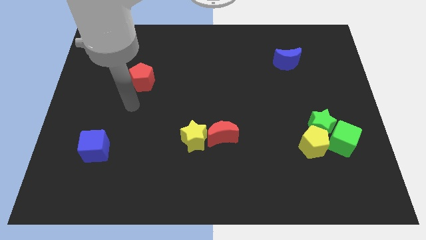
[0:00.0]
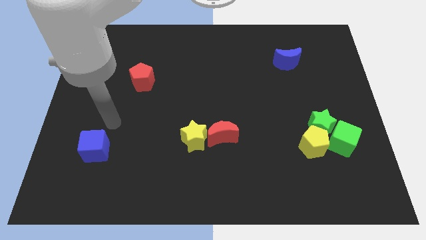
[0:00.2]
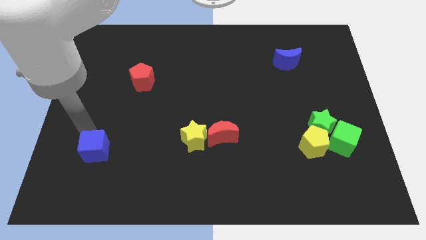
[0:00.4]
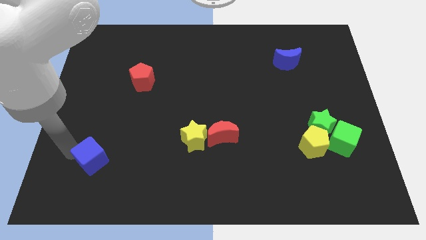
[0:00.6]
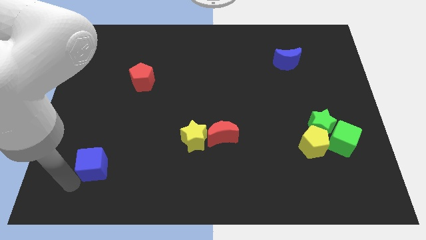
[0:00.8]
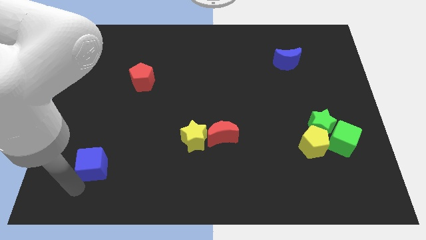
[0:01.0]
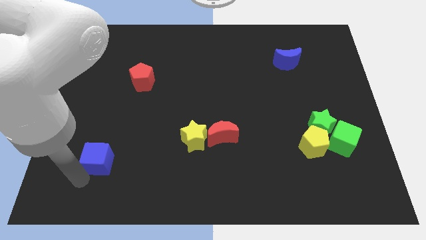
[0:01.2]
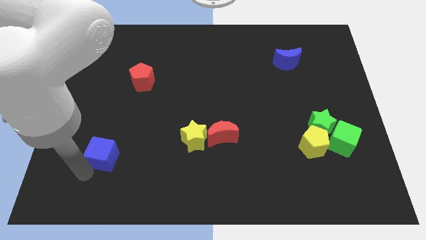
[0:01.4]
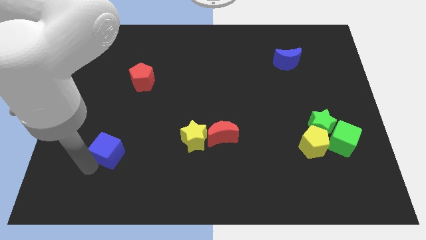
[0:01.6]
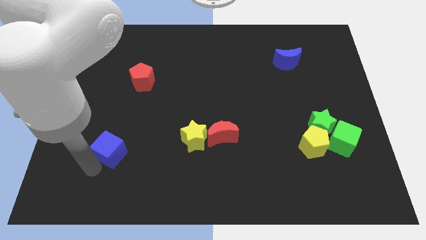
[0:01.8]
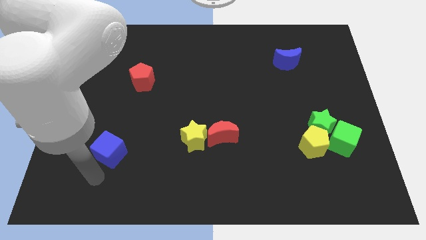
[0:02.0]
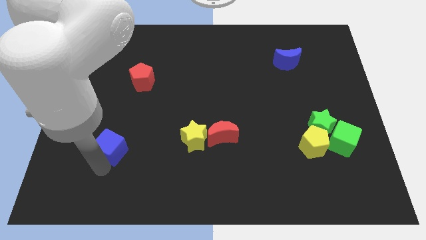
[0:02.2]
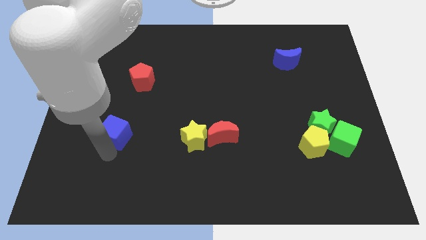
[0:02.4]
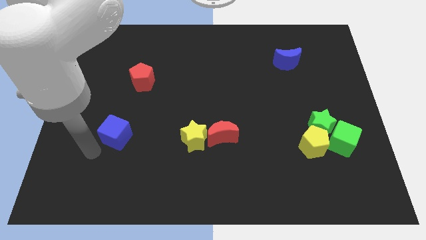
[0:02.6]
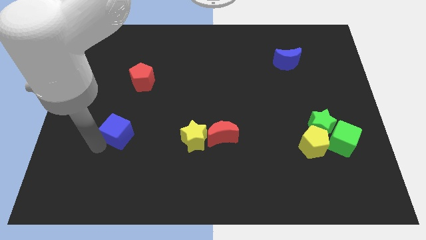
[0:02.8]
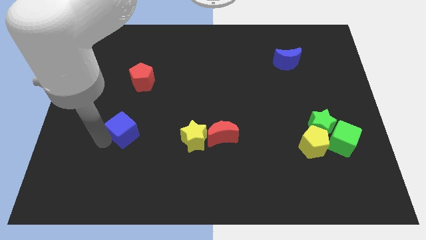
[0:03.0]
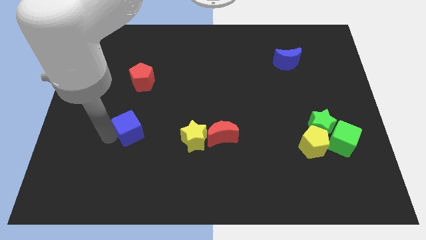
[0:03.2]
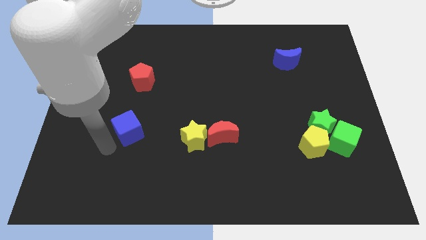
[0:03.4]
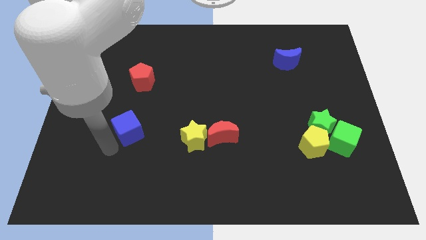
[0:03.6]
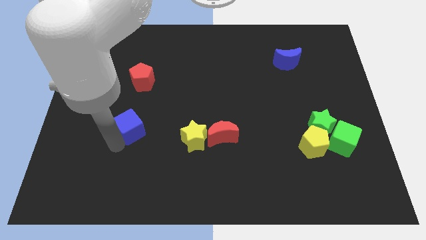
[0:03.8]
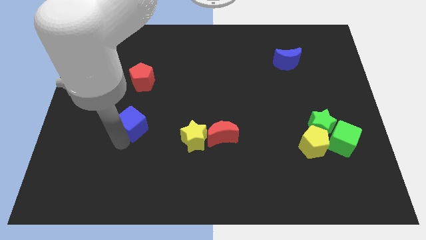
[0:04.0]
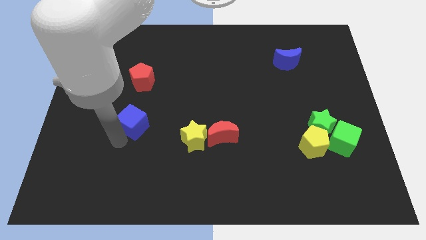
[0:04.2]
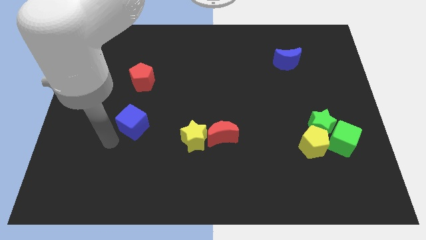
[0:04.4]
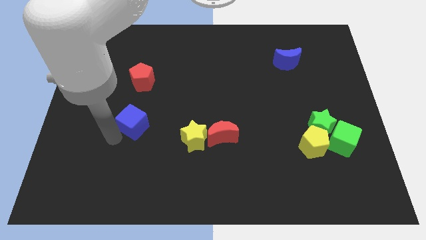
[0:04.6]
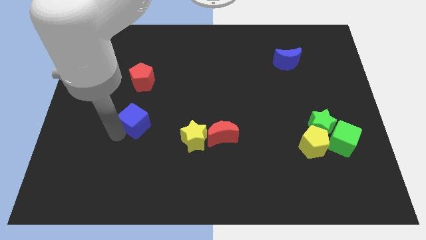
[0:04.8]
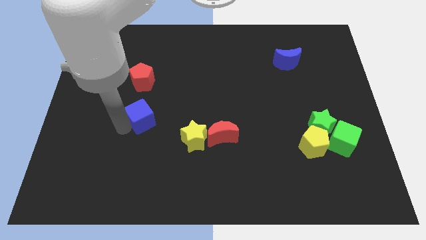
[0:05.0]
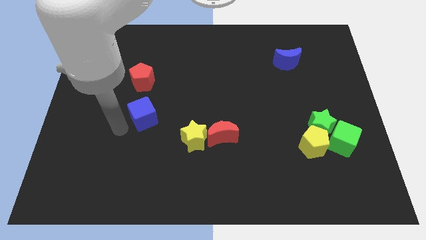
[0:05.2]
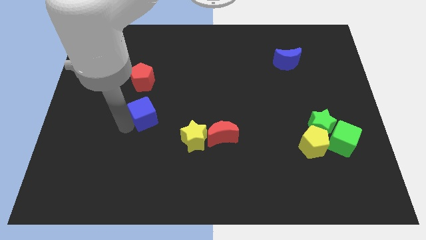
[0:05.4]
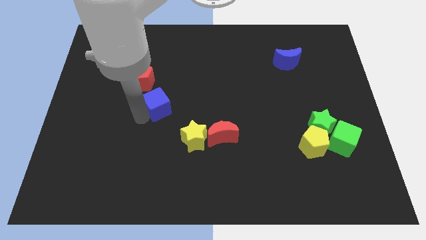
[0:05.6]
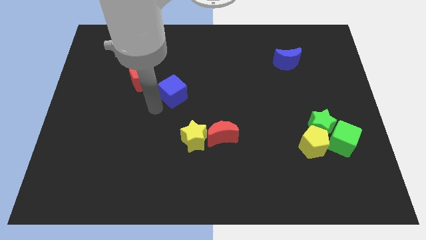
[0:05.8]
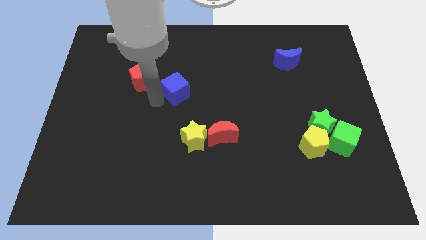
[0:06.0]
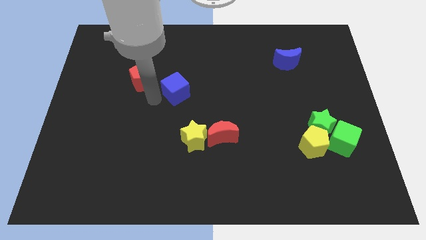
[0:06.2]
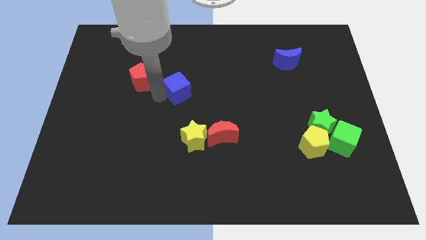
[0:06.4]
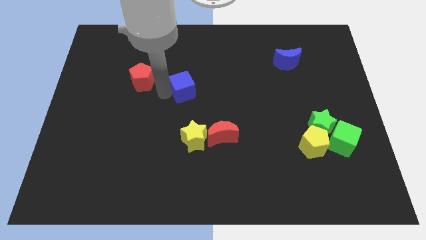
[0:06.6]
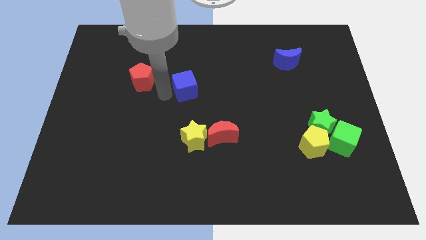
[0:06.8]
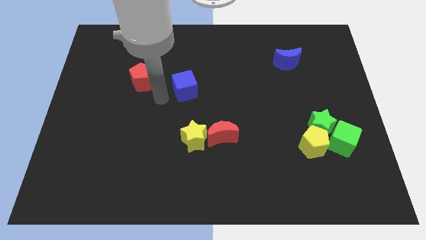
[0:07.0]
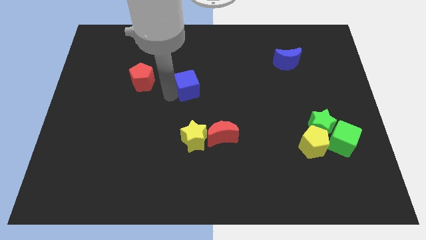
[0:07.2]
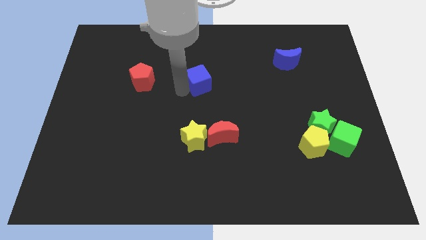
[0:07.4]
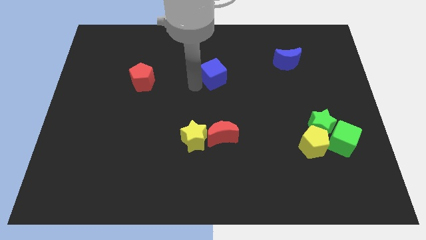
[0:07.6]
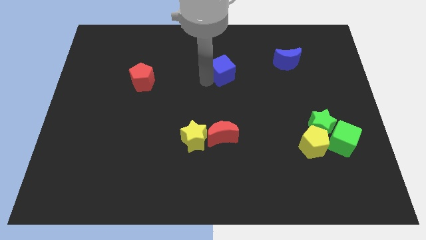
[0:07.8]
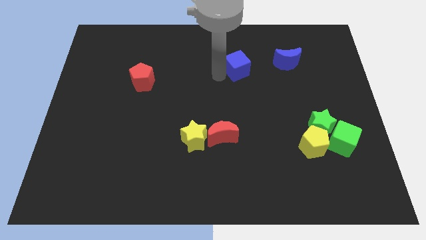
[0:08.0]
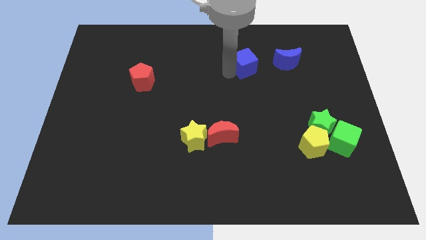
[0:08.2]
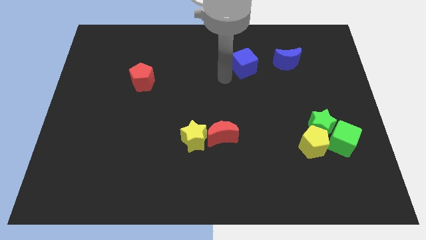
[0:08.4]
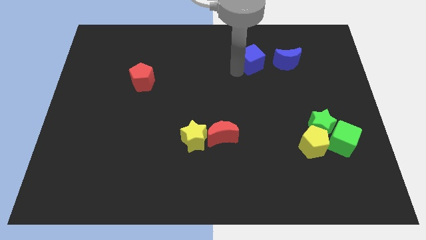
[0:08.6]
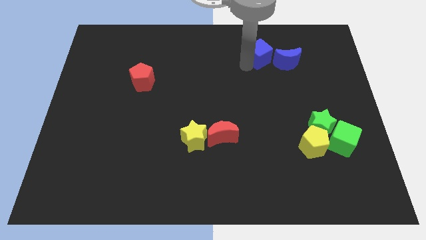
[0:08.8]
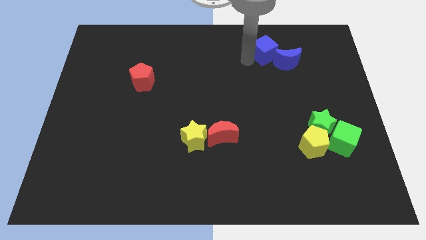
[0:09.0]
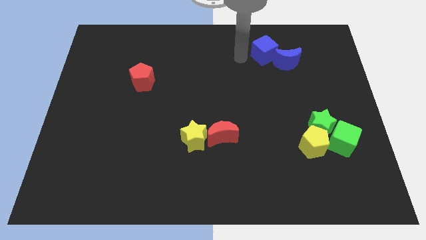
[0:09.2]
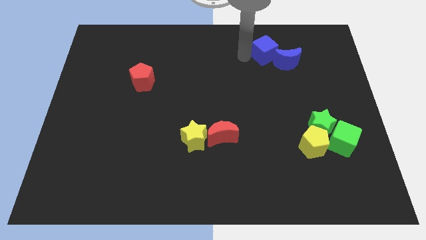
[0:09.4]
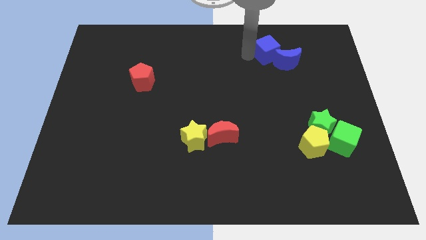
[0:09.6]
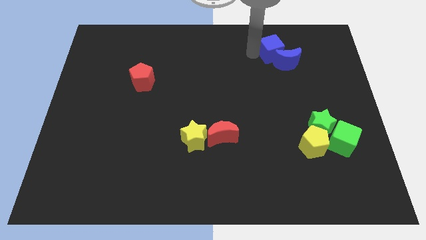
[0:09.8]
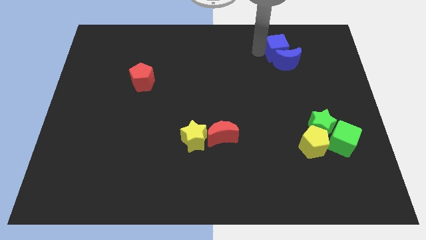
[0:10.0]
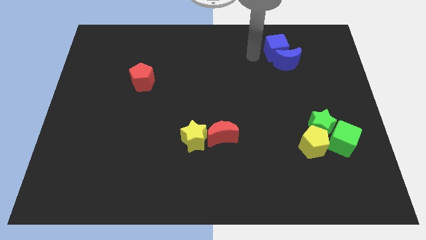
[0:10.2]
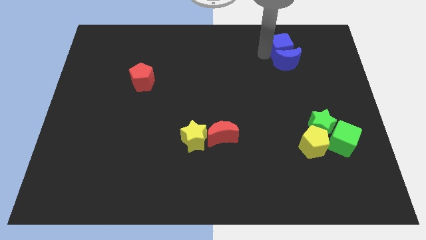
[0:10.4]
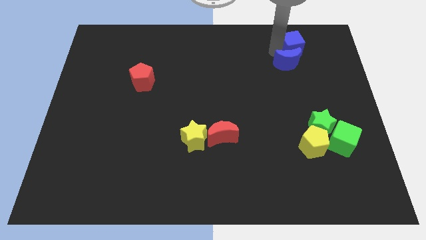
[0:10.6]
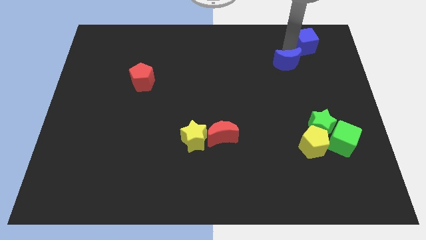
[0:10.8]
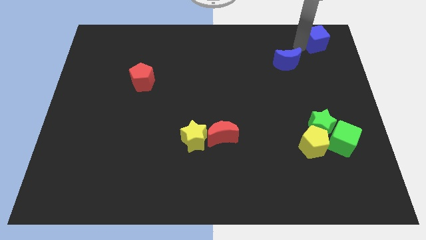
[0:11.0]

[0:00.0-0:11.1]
push the blue cube to the top right corner
